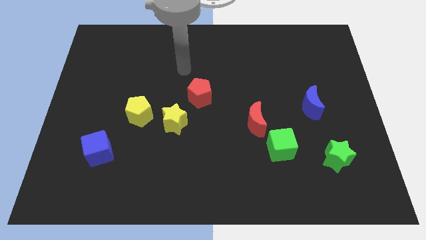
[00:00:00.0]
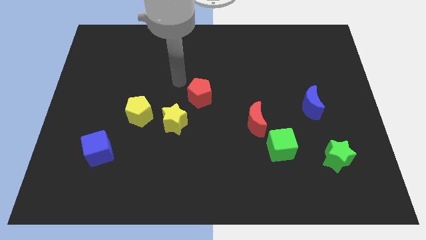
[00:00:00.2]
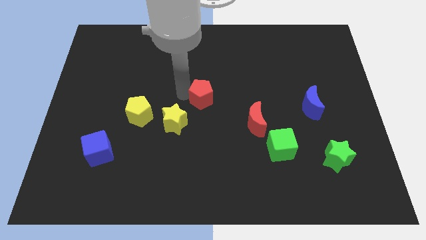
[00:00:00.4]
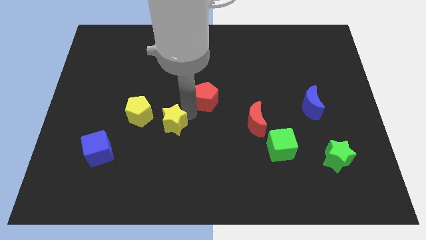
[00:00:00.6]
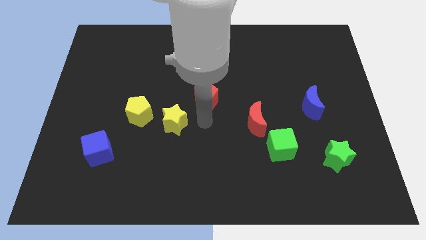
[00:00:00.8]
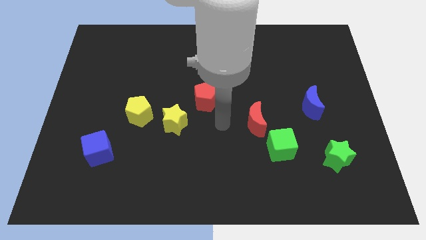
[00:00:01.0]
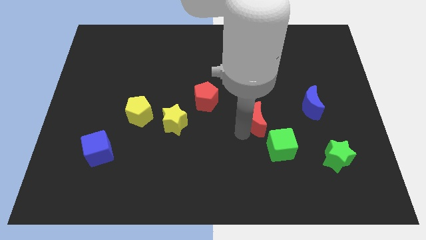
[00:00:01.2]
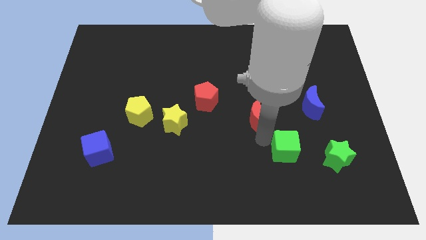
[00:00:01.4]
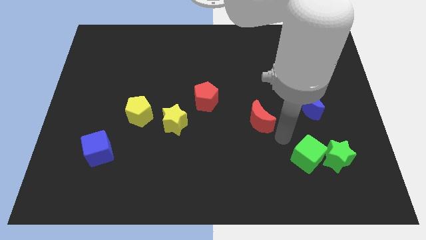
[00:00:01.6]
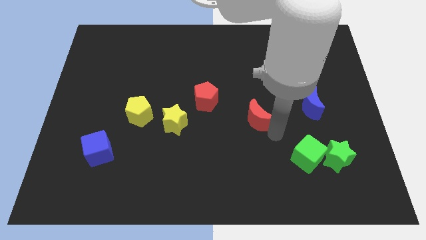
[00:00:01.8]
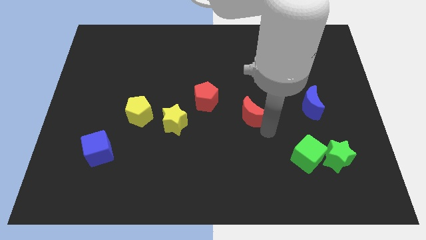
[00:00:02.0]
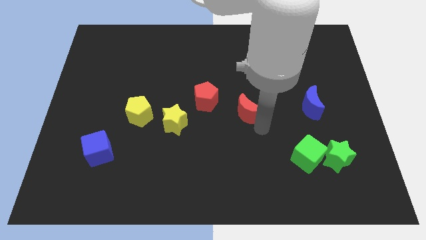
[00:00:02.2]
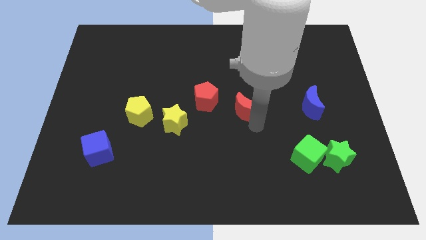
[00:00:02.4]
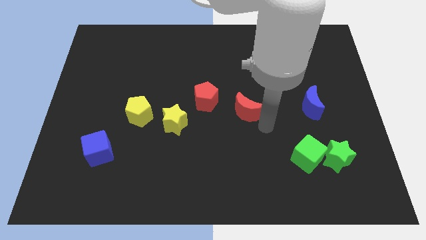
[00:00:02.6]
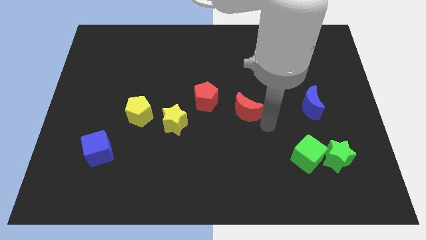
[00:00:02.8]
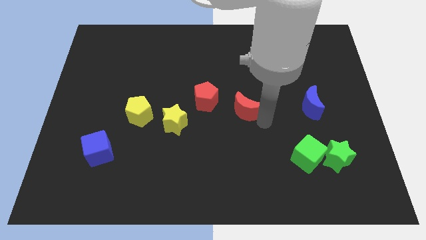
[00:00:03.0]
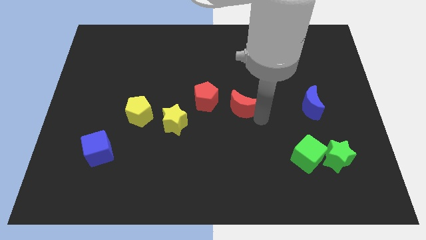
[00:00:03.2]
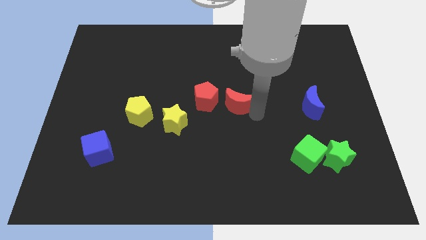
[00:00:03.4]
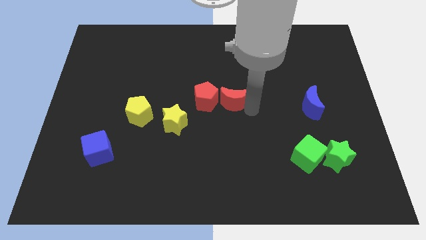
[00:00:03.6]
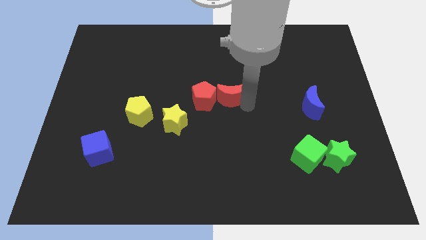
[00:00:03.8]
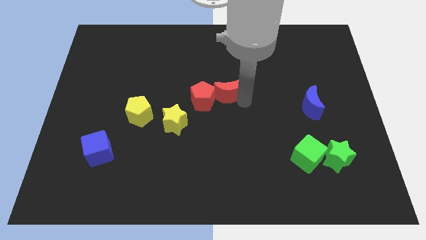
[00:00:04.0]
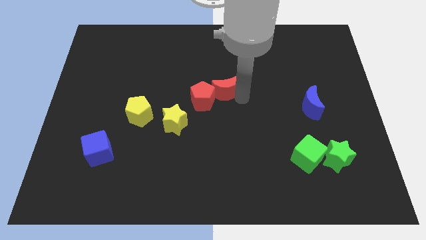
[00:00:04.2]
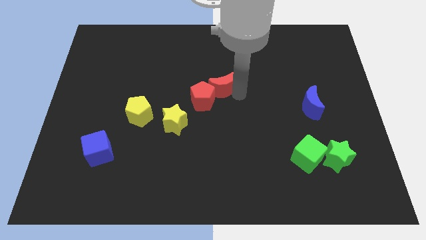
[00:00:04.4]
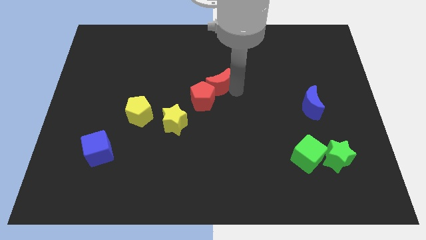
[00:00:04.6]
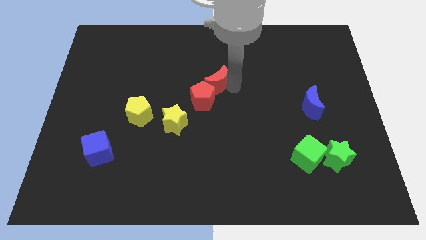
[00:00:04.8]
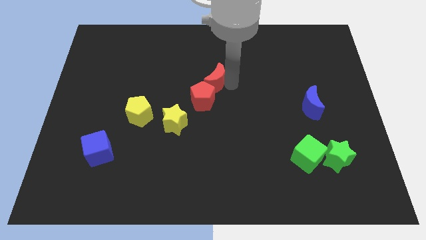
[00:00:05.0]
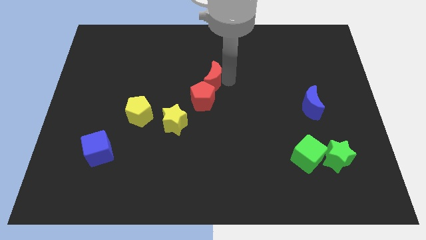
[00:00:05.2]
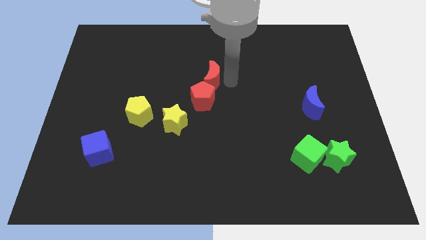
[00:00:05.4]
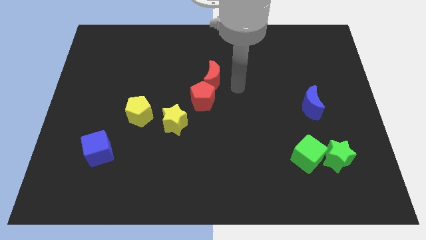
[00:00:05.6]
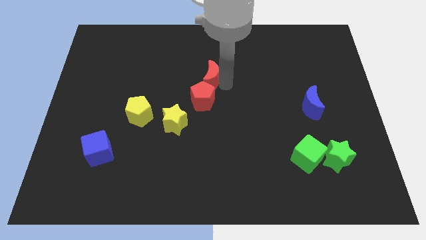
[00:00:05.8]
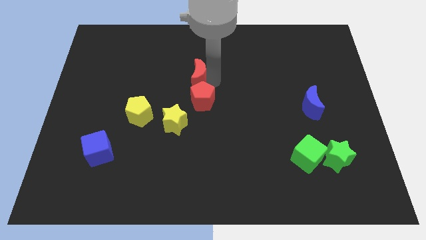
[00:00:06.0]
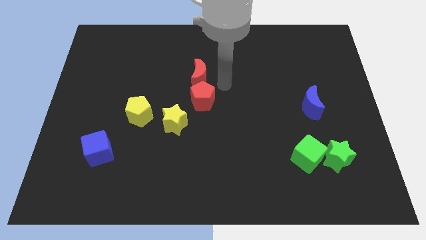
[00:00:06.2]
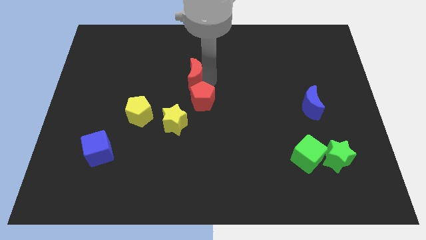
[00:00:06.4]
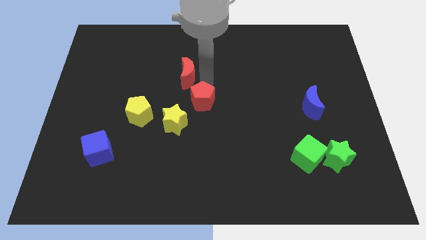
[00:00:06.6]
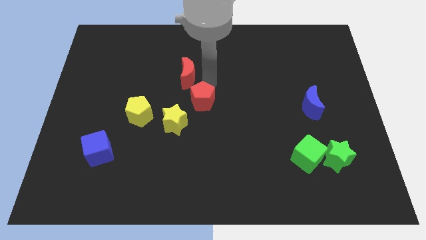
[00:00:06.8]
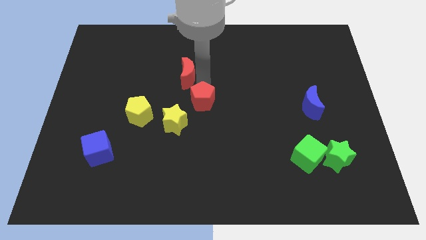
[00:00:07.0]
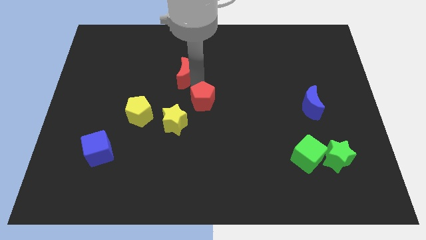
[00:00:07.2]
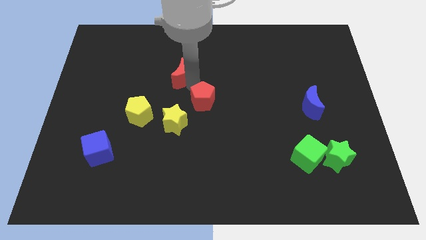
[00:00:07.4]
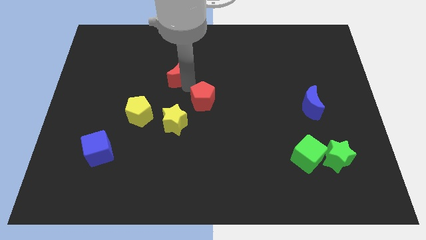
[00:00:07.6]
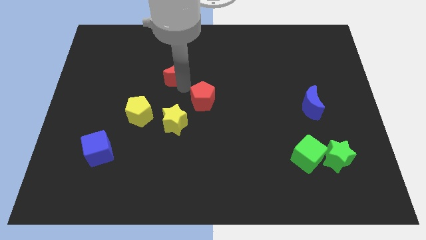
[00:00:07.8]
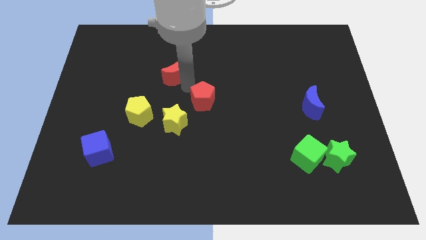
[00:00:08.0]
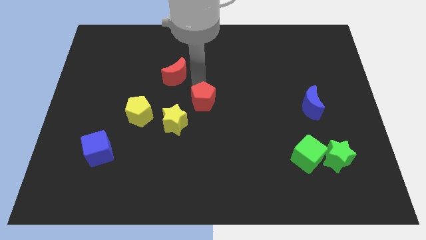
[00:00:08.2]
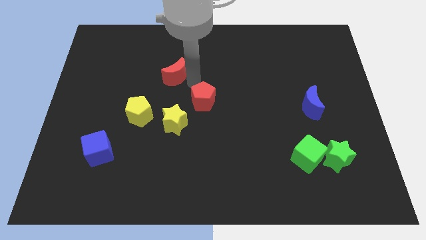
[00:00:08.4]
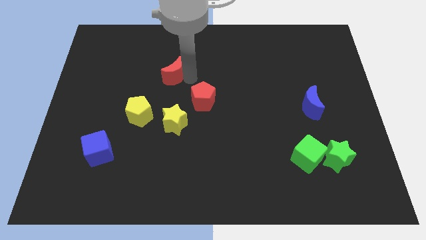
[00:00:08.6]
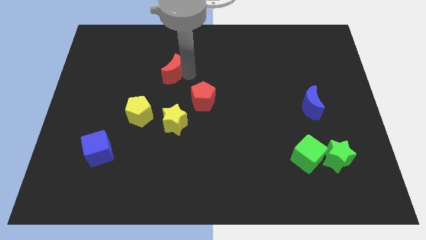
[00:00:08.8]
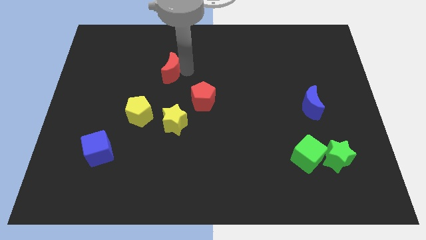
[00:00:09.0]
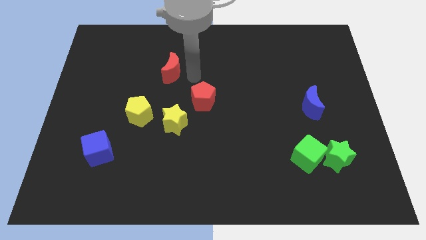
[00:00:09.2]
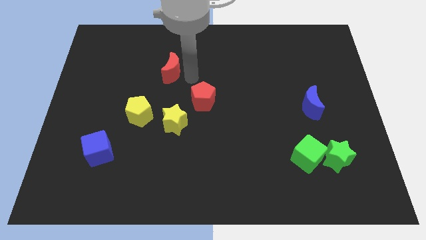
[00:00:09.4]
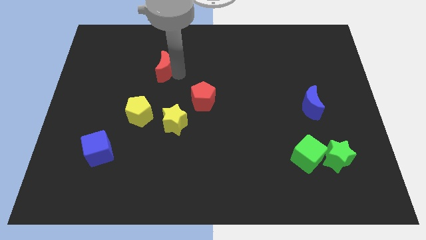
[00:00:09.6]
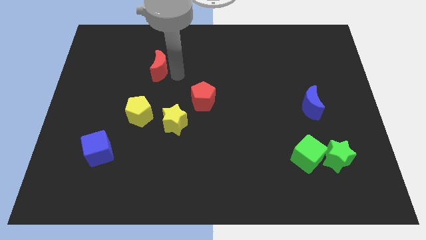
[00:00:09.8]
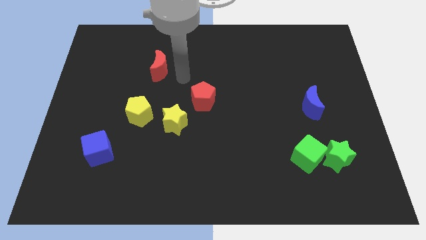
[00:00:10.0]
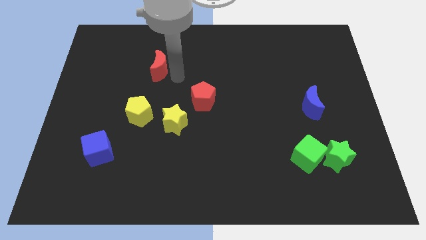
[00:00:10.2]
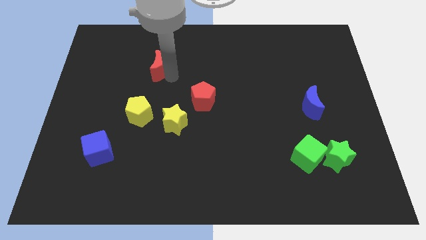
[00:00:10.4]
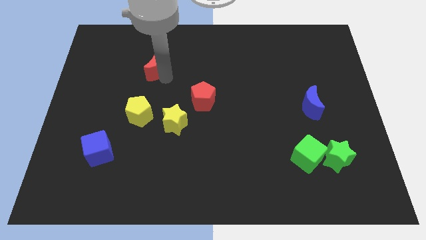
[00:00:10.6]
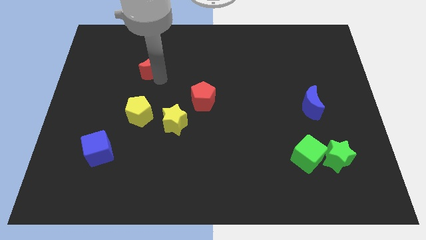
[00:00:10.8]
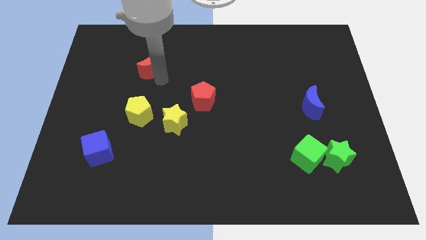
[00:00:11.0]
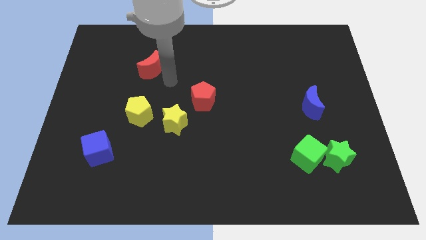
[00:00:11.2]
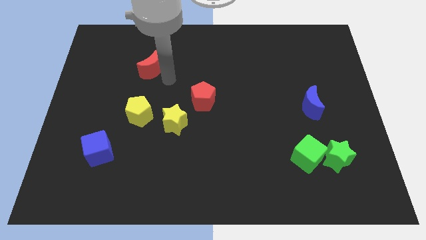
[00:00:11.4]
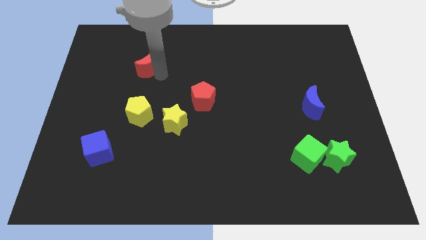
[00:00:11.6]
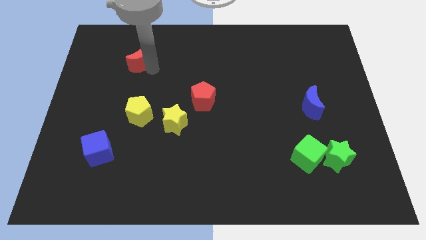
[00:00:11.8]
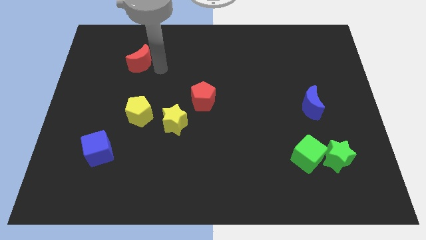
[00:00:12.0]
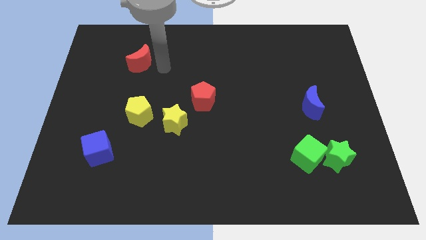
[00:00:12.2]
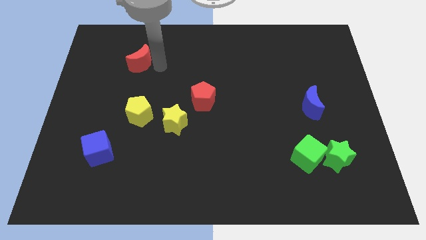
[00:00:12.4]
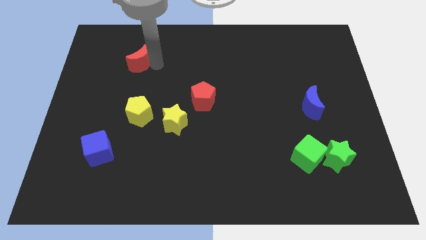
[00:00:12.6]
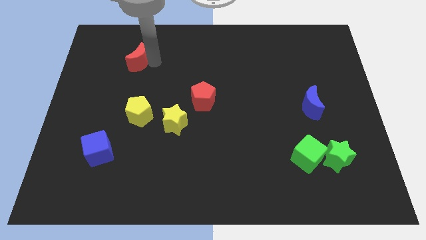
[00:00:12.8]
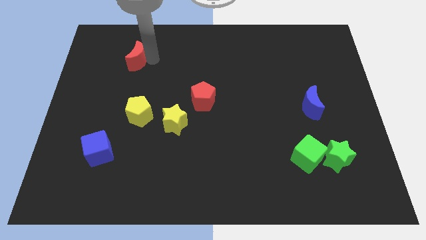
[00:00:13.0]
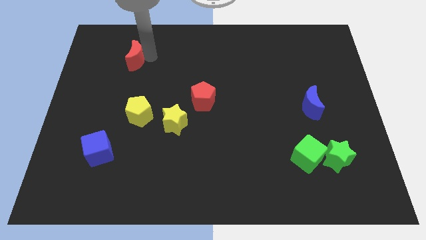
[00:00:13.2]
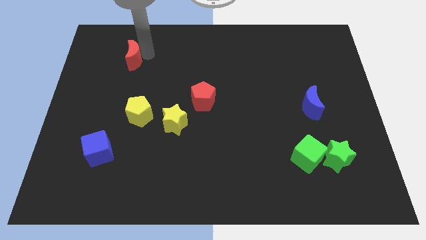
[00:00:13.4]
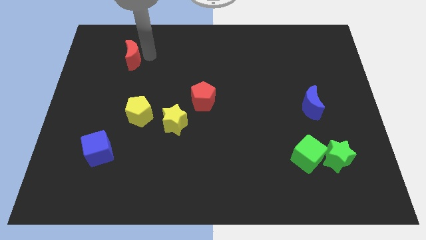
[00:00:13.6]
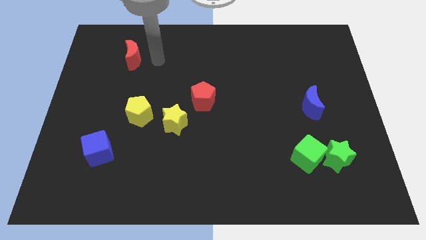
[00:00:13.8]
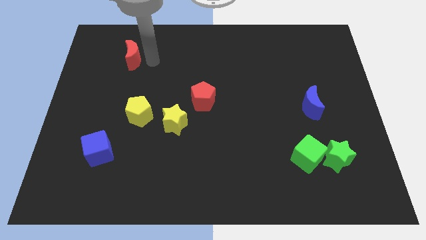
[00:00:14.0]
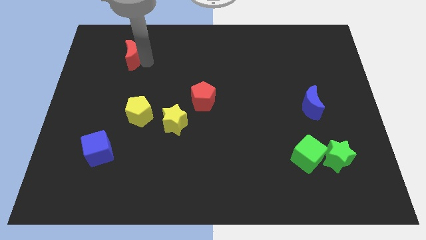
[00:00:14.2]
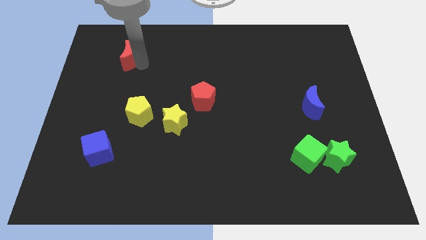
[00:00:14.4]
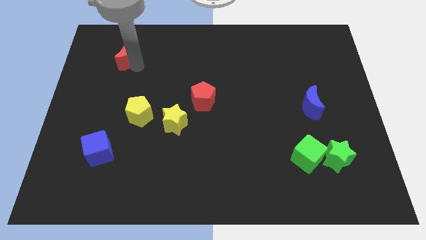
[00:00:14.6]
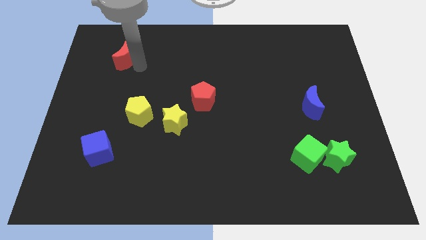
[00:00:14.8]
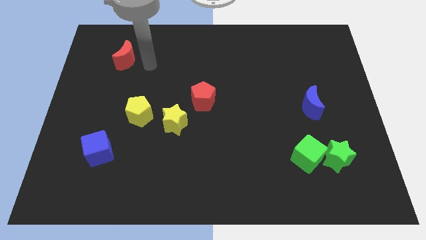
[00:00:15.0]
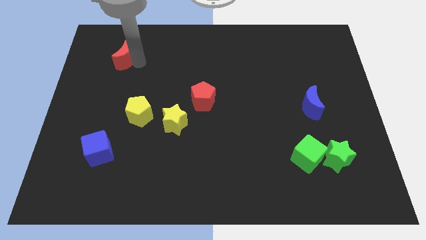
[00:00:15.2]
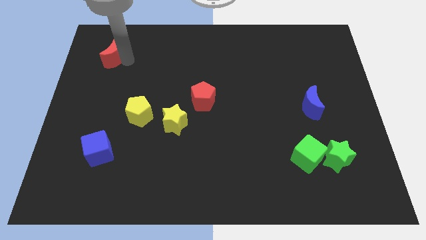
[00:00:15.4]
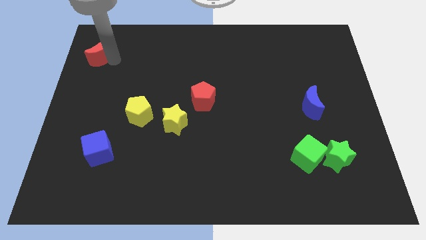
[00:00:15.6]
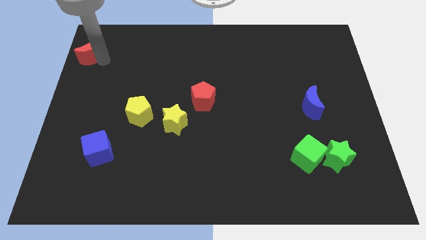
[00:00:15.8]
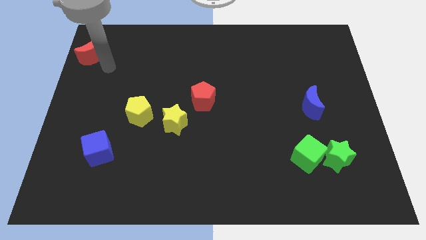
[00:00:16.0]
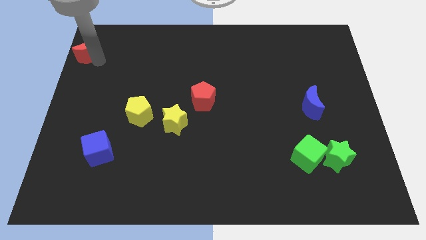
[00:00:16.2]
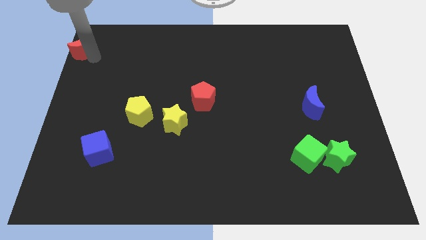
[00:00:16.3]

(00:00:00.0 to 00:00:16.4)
move the red moon to the top left
